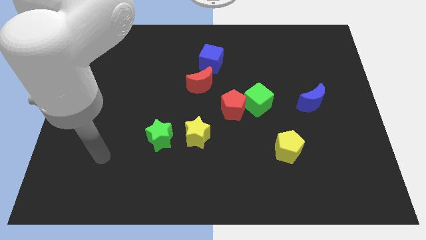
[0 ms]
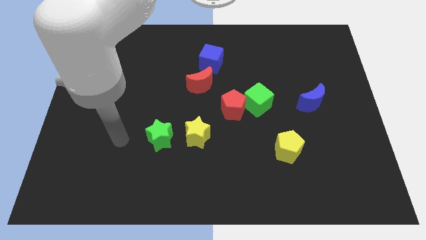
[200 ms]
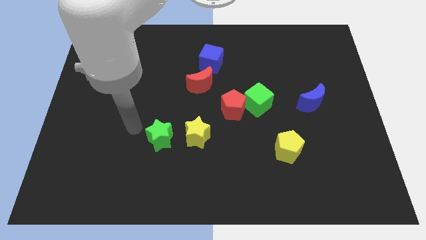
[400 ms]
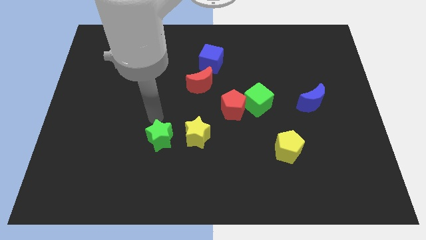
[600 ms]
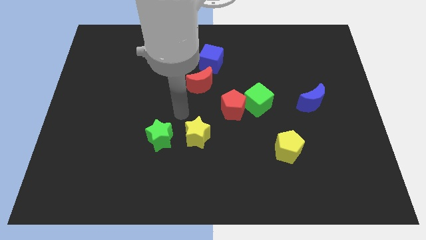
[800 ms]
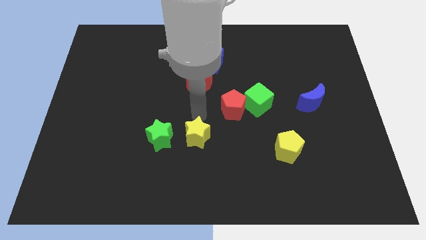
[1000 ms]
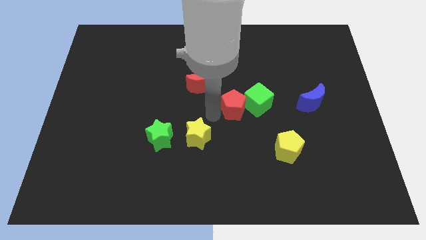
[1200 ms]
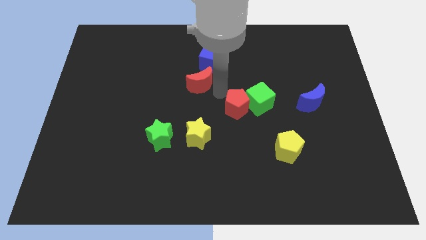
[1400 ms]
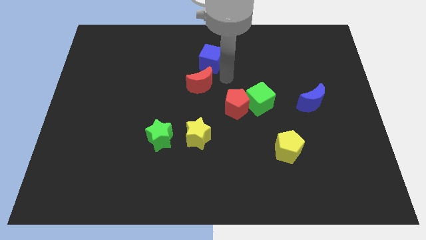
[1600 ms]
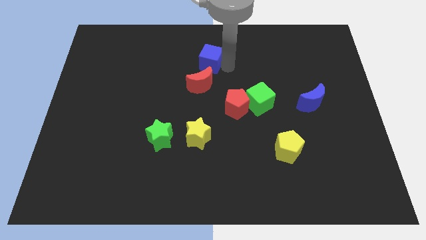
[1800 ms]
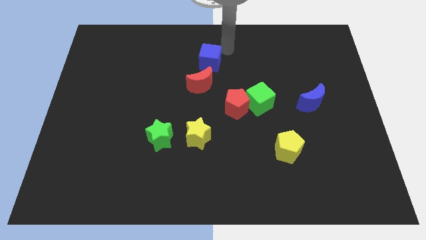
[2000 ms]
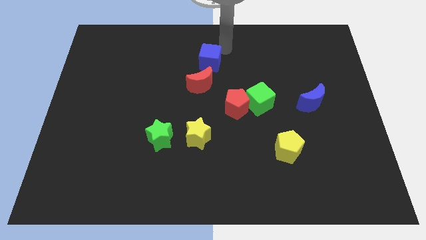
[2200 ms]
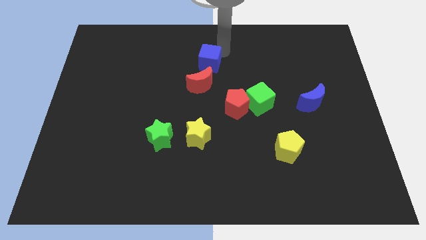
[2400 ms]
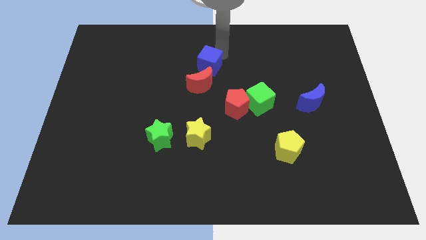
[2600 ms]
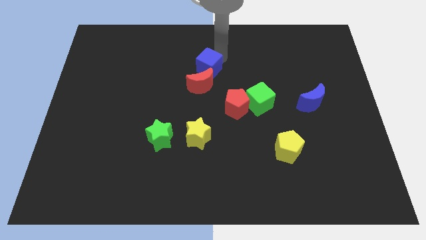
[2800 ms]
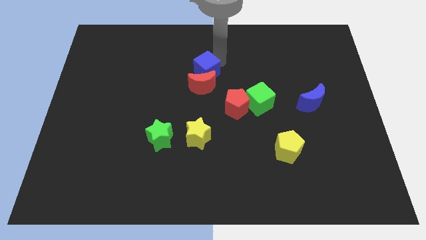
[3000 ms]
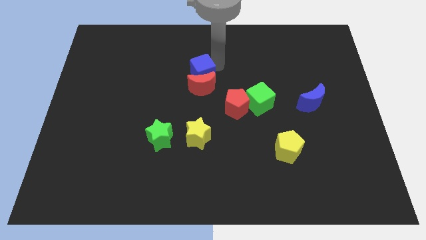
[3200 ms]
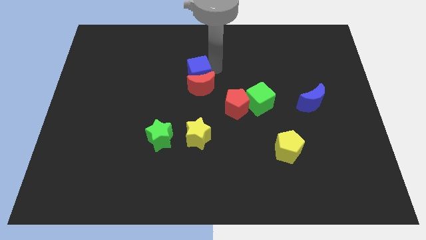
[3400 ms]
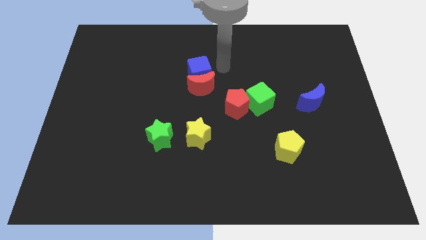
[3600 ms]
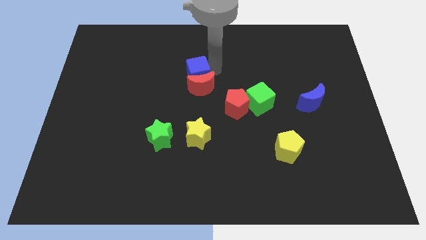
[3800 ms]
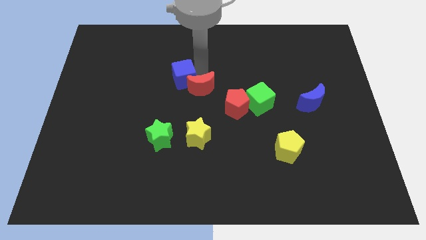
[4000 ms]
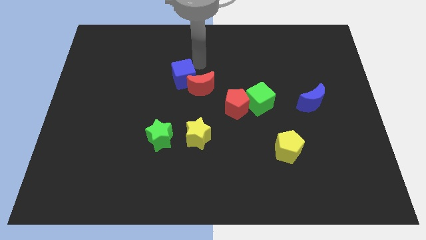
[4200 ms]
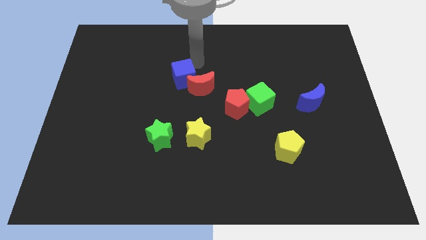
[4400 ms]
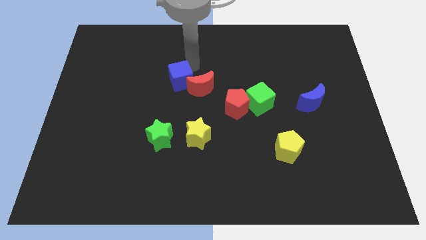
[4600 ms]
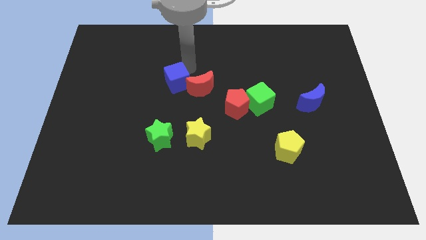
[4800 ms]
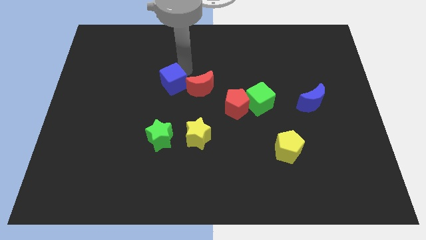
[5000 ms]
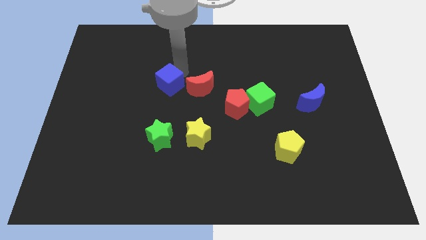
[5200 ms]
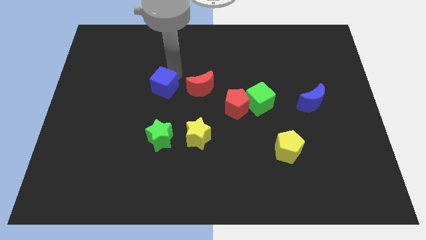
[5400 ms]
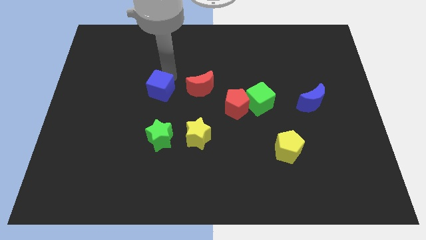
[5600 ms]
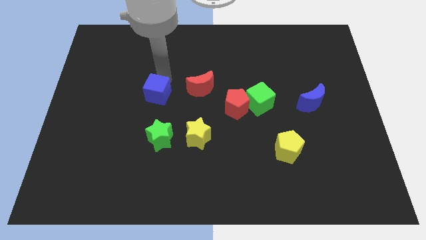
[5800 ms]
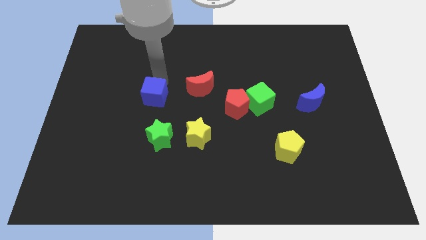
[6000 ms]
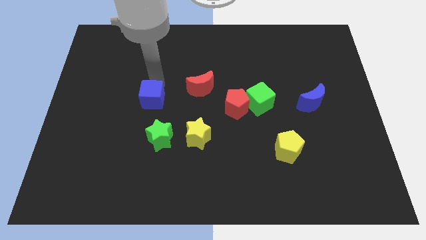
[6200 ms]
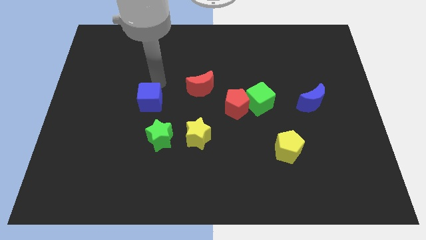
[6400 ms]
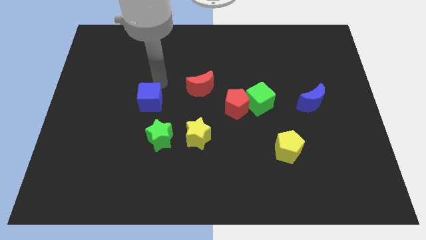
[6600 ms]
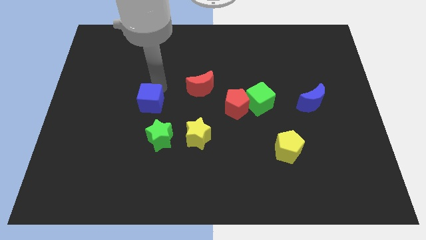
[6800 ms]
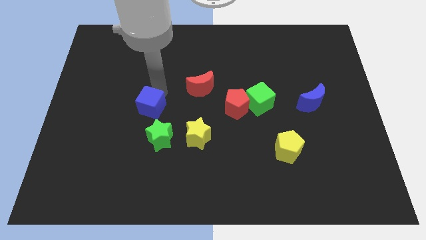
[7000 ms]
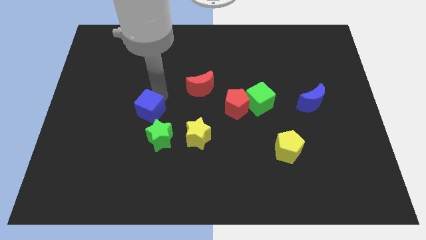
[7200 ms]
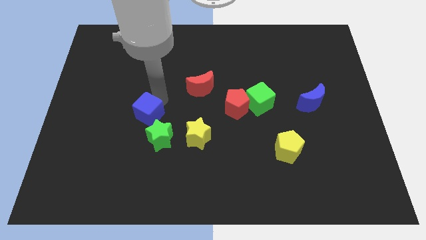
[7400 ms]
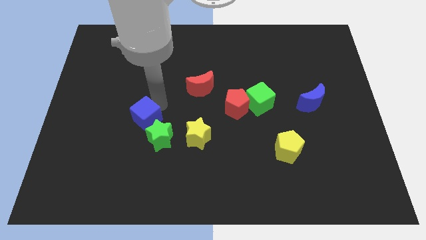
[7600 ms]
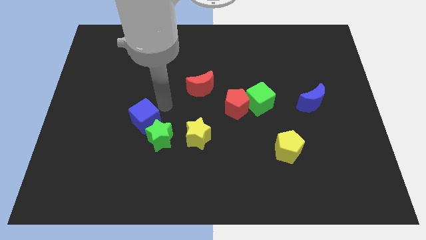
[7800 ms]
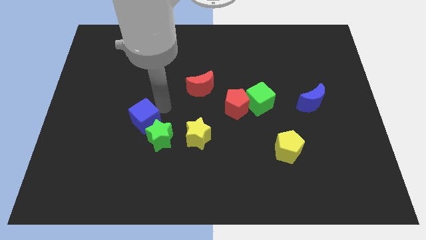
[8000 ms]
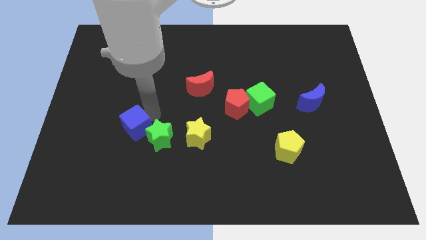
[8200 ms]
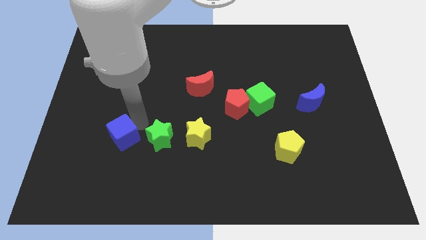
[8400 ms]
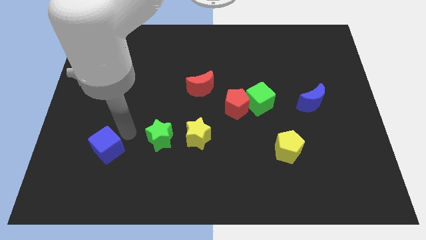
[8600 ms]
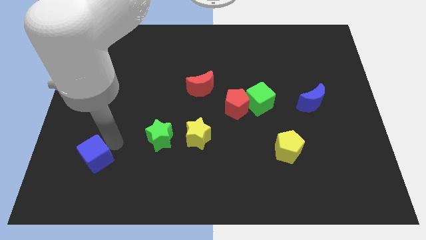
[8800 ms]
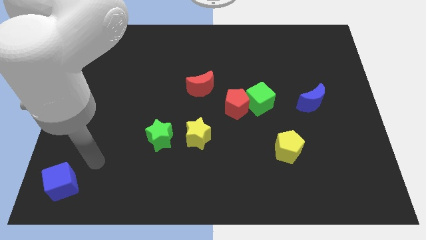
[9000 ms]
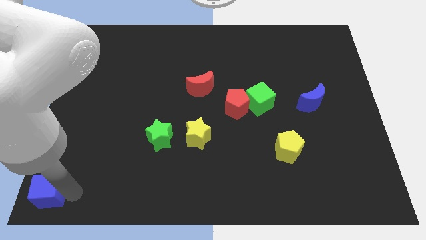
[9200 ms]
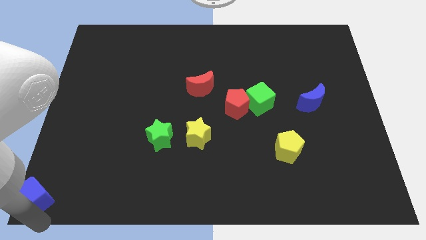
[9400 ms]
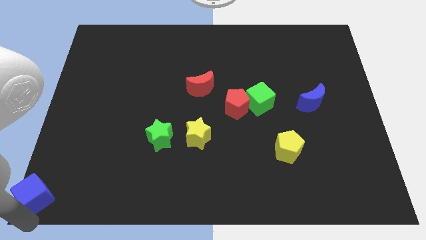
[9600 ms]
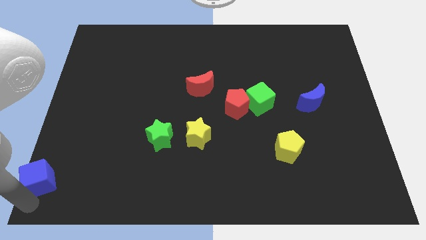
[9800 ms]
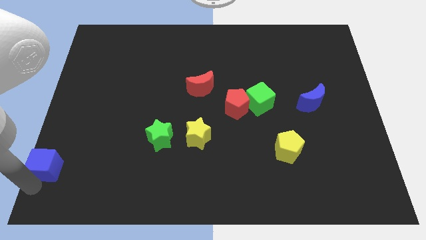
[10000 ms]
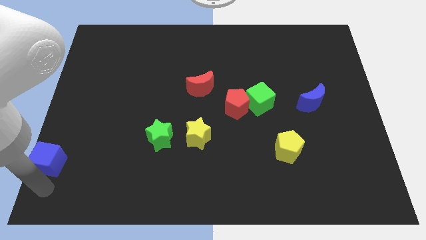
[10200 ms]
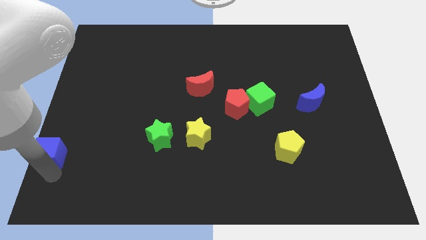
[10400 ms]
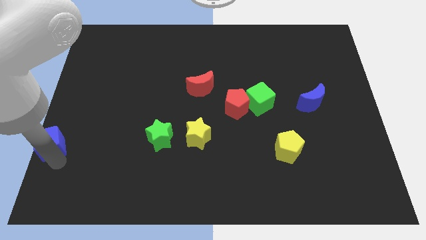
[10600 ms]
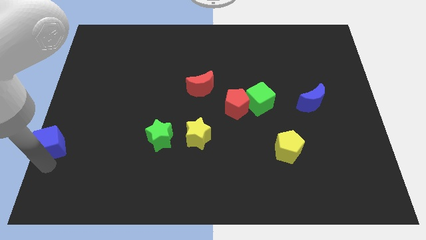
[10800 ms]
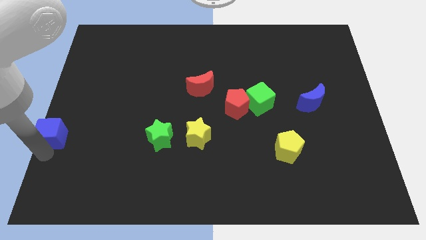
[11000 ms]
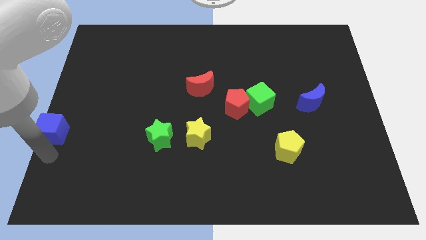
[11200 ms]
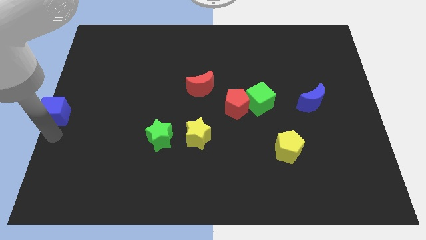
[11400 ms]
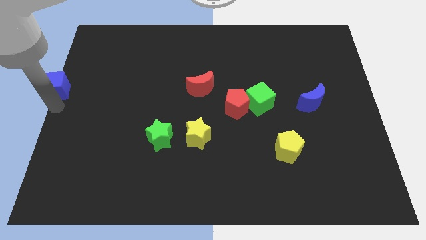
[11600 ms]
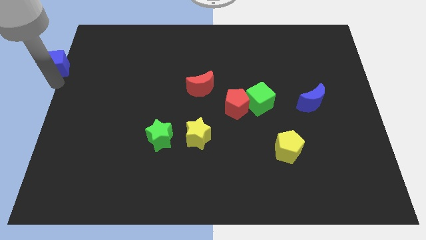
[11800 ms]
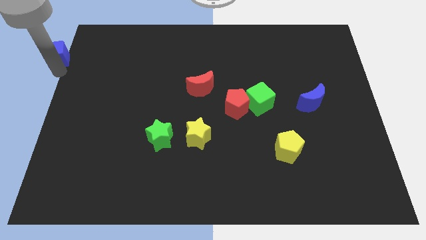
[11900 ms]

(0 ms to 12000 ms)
push the blue cube to the top left corner
